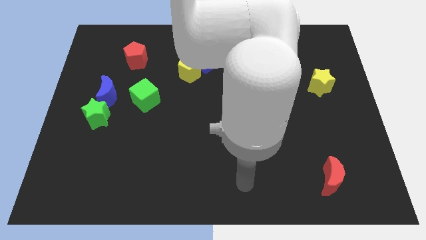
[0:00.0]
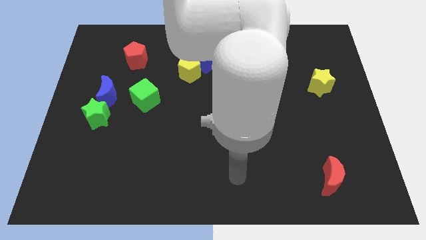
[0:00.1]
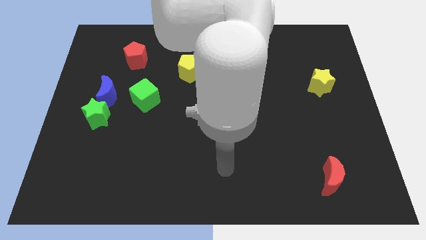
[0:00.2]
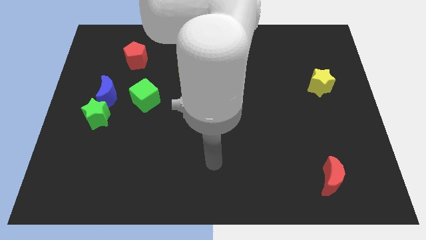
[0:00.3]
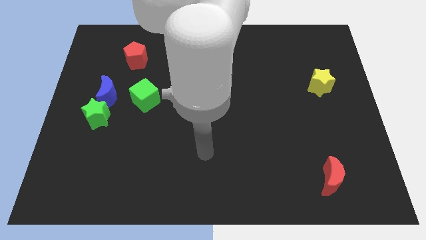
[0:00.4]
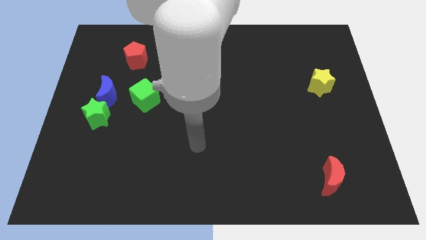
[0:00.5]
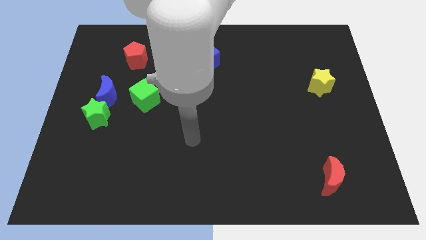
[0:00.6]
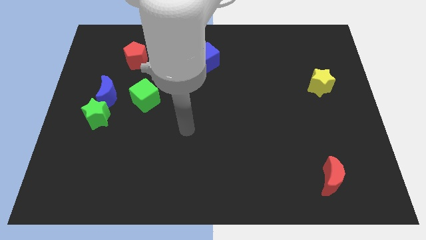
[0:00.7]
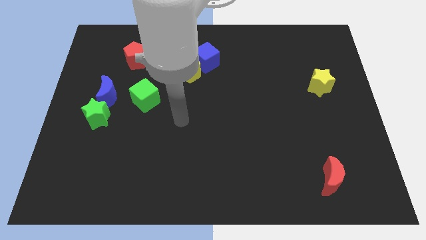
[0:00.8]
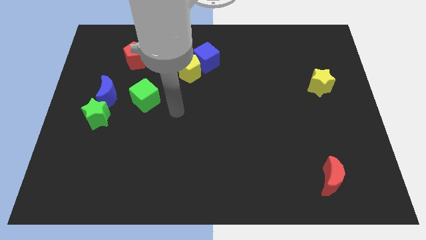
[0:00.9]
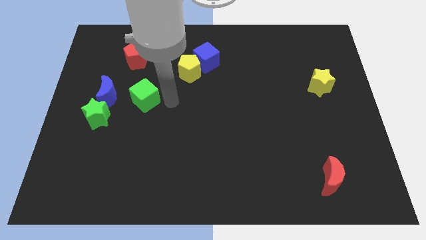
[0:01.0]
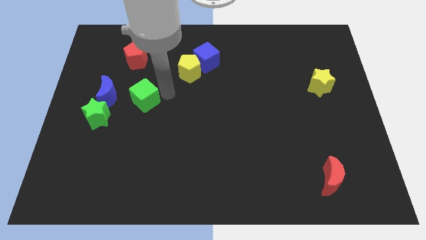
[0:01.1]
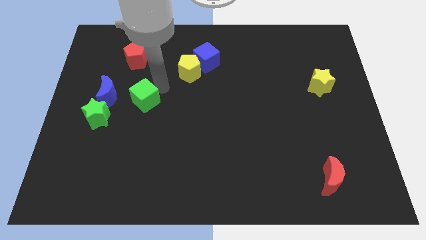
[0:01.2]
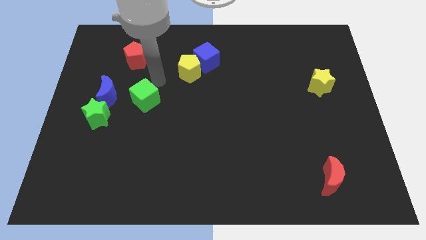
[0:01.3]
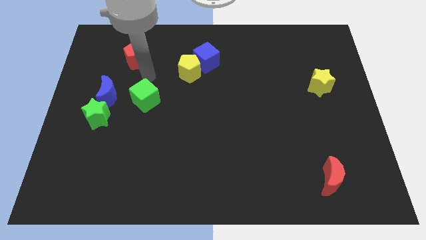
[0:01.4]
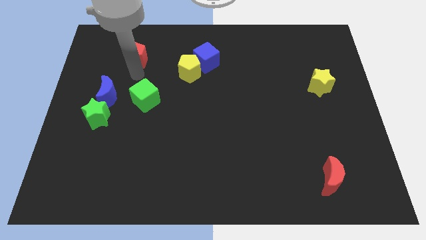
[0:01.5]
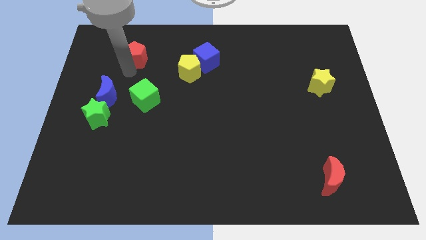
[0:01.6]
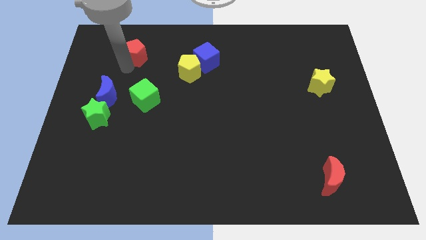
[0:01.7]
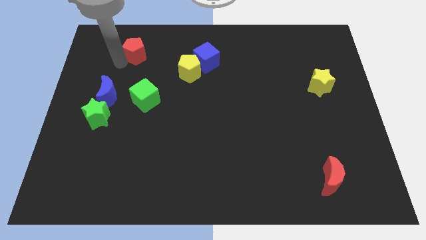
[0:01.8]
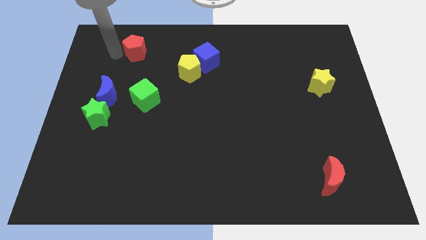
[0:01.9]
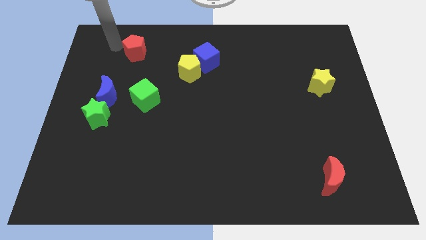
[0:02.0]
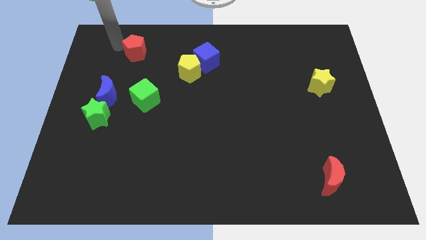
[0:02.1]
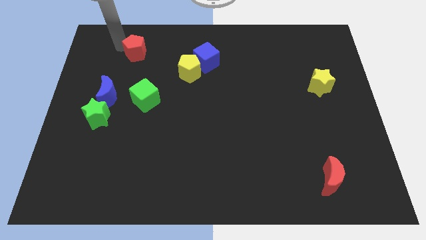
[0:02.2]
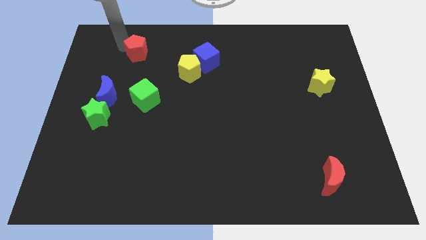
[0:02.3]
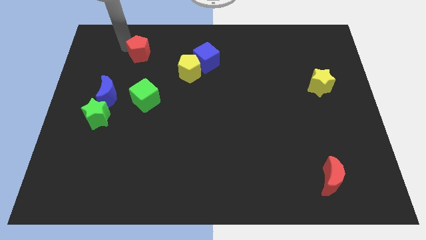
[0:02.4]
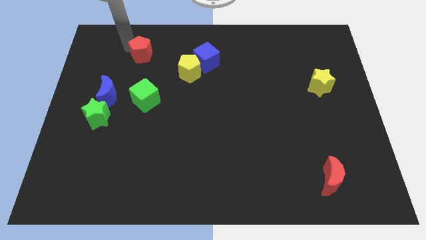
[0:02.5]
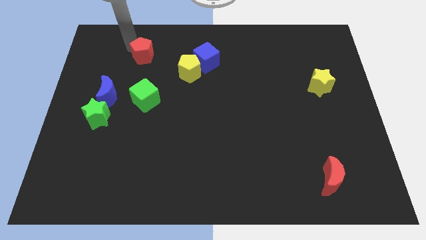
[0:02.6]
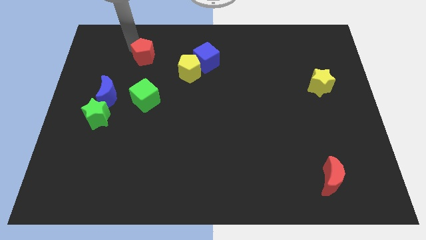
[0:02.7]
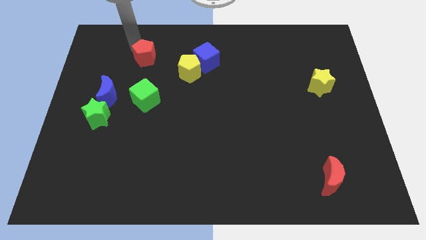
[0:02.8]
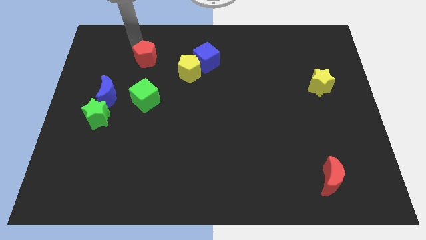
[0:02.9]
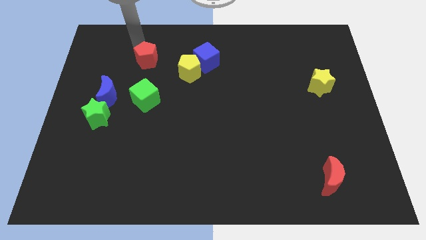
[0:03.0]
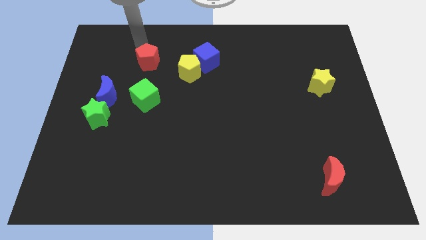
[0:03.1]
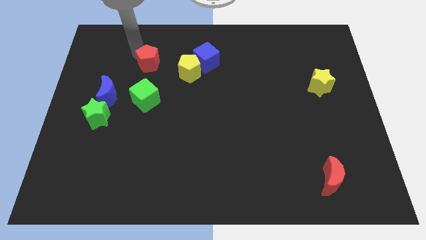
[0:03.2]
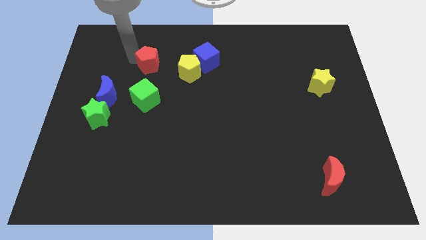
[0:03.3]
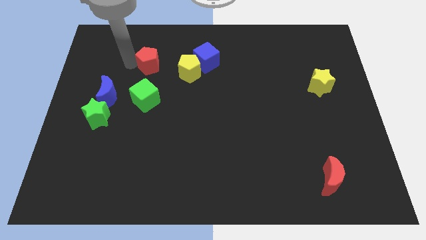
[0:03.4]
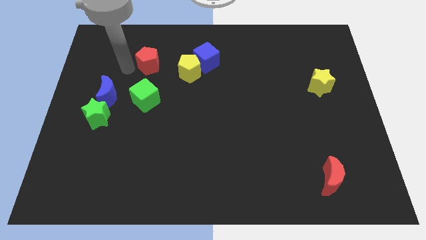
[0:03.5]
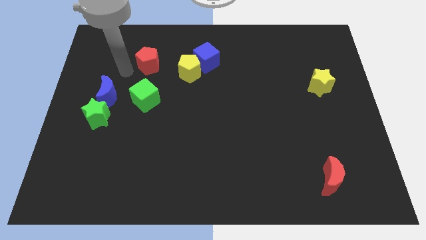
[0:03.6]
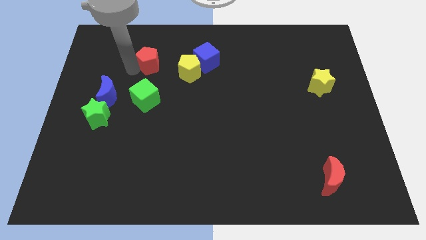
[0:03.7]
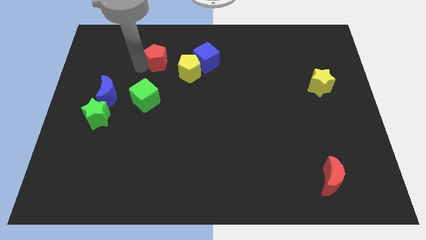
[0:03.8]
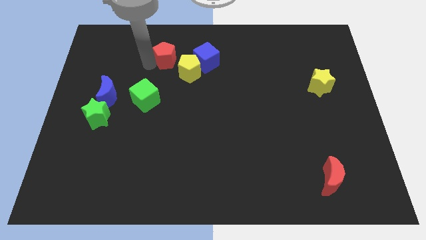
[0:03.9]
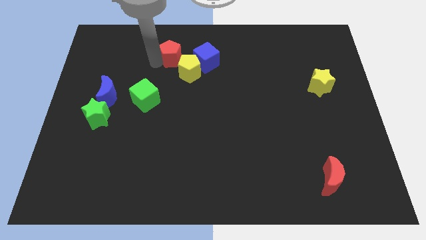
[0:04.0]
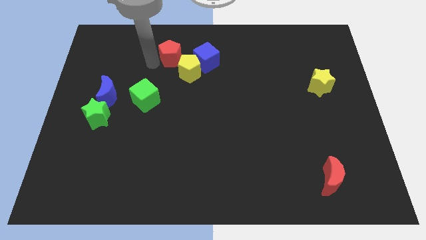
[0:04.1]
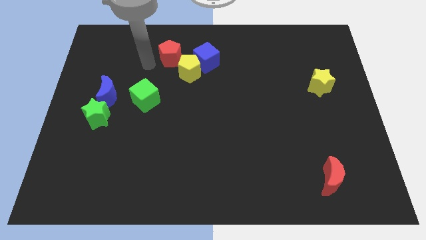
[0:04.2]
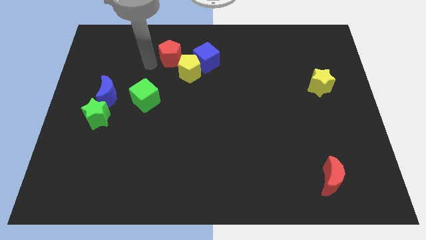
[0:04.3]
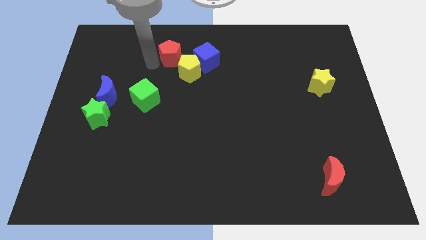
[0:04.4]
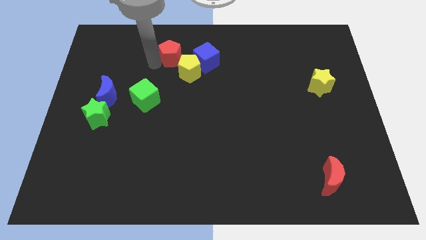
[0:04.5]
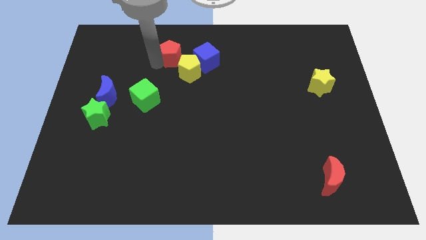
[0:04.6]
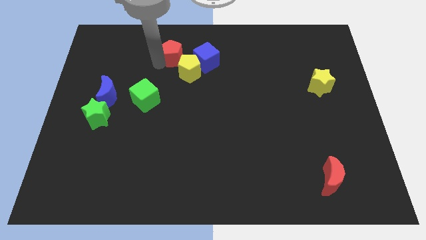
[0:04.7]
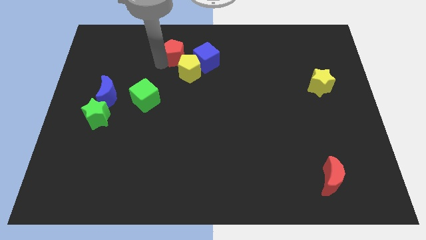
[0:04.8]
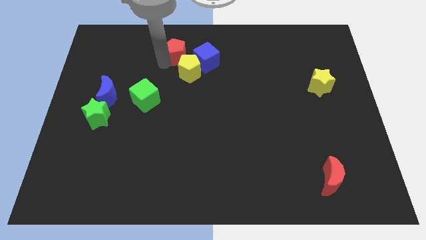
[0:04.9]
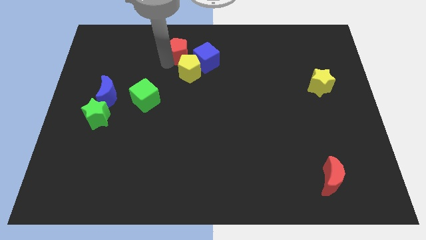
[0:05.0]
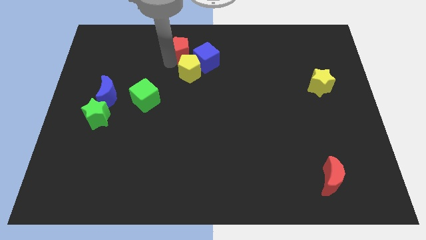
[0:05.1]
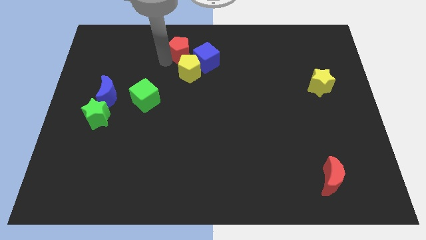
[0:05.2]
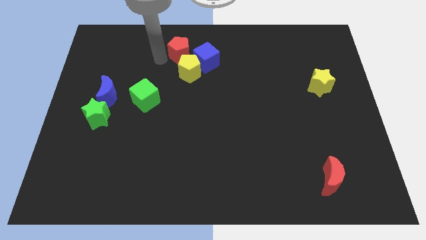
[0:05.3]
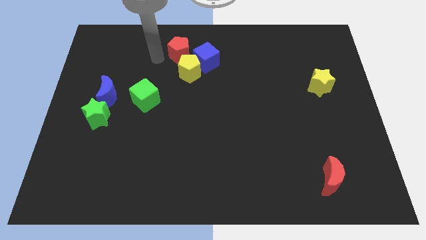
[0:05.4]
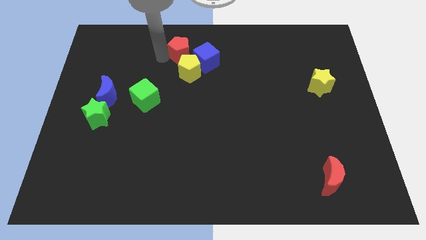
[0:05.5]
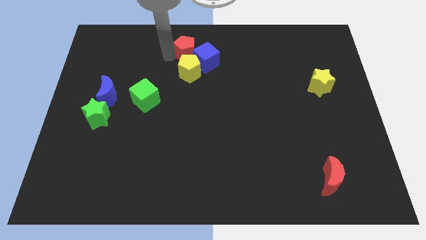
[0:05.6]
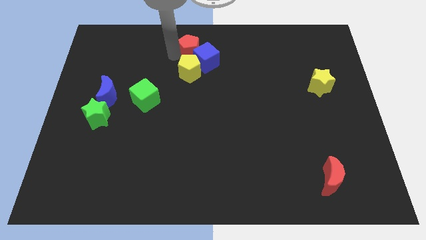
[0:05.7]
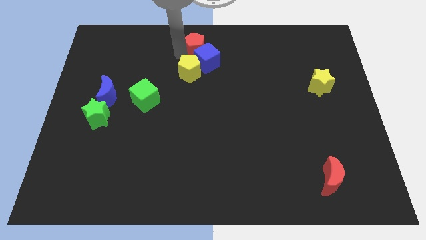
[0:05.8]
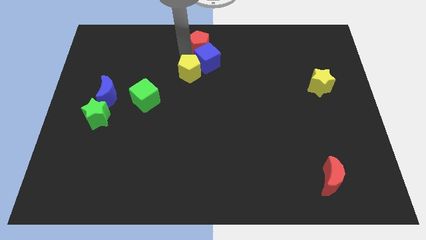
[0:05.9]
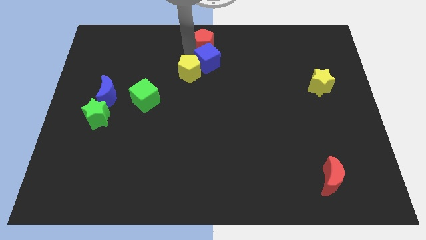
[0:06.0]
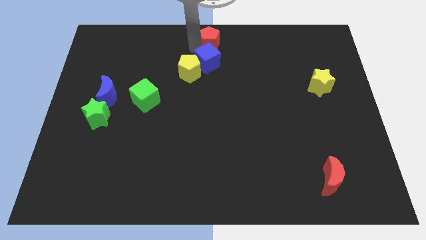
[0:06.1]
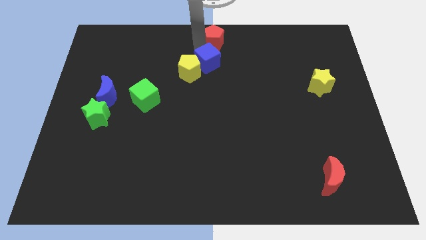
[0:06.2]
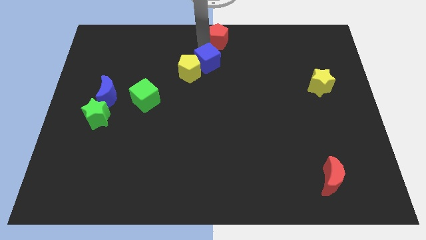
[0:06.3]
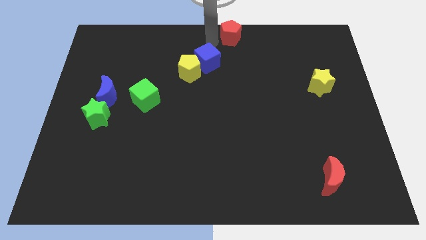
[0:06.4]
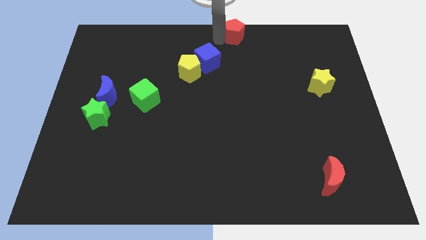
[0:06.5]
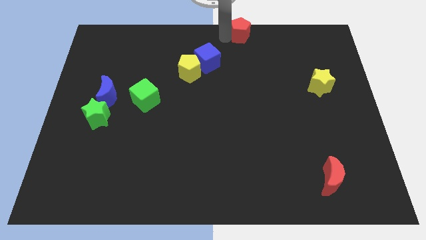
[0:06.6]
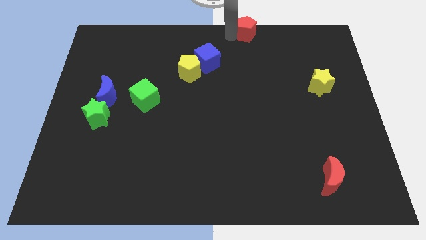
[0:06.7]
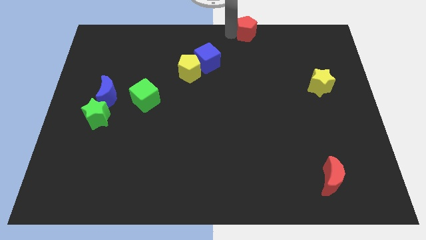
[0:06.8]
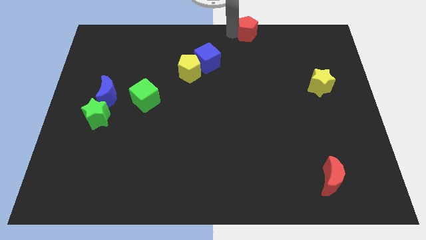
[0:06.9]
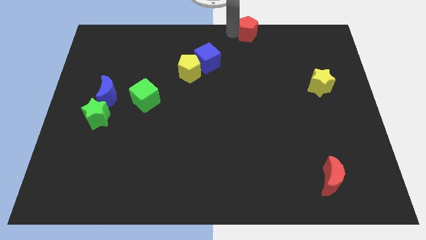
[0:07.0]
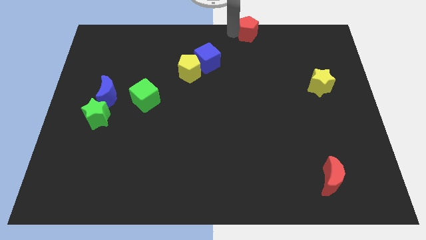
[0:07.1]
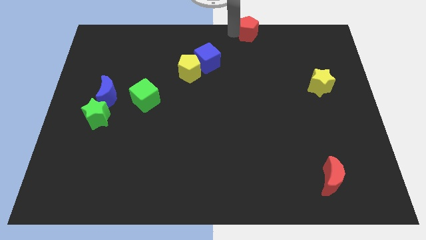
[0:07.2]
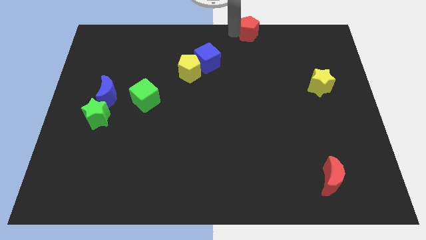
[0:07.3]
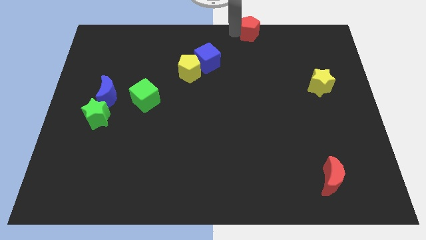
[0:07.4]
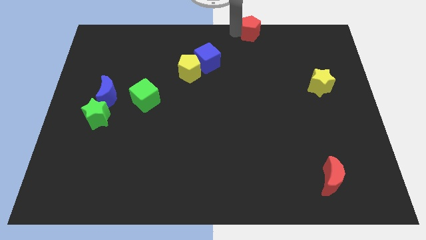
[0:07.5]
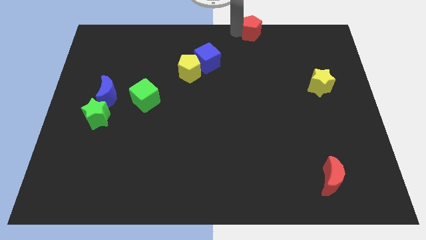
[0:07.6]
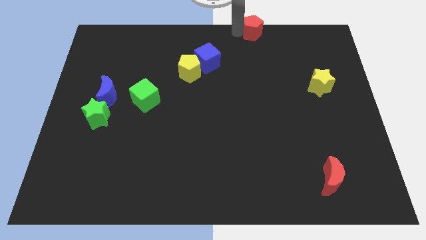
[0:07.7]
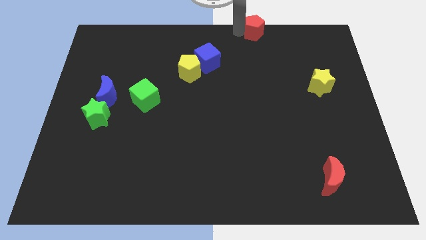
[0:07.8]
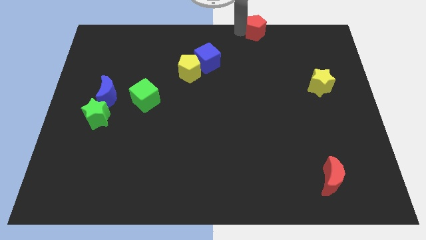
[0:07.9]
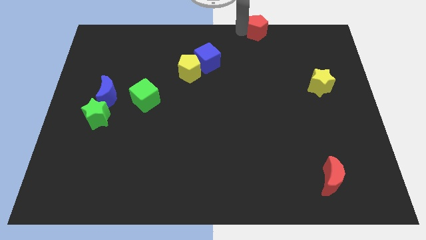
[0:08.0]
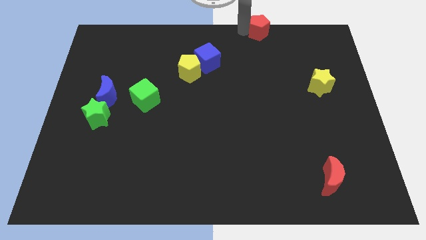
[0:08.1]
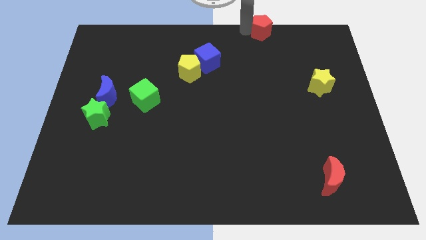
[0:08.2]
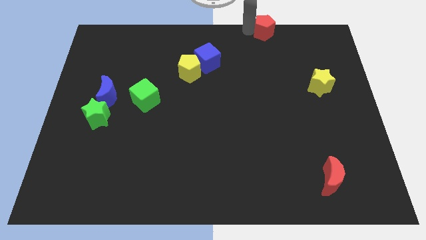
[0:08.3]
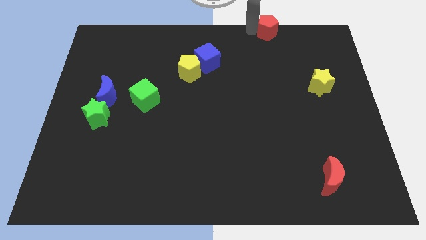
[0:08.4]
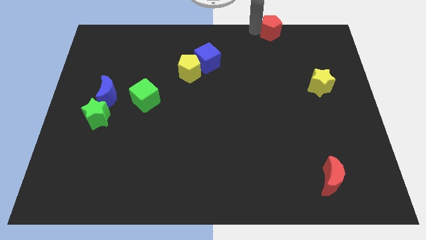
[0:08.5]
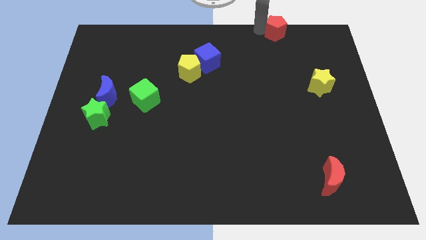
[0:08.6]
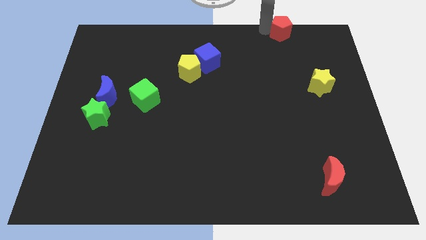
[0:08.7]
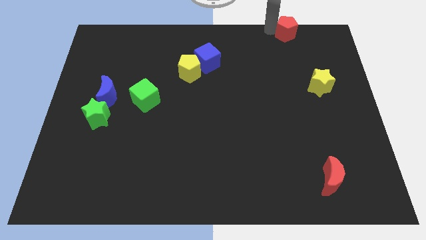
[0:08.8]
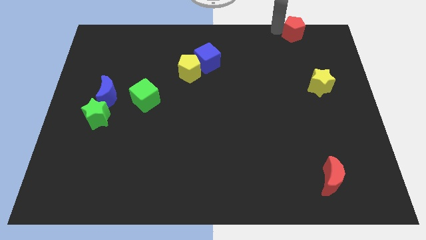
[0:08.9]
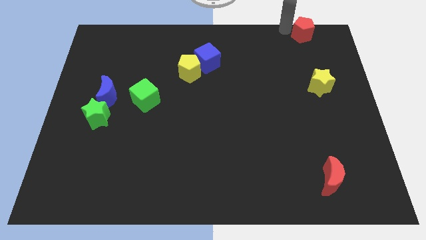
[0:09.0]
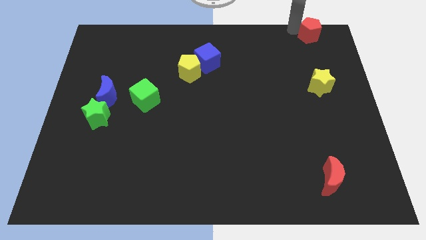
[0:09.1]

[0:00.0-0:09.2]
move the red pentagon to the top right
